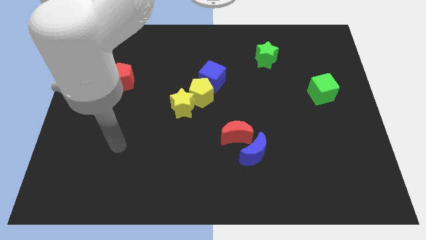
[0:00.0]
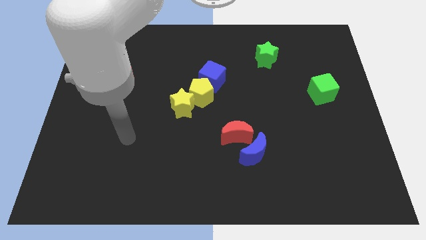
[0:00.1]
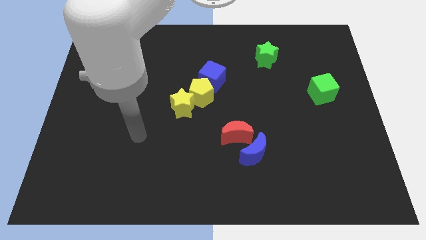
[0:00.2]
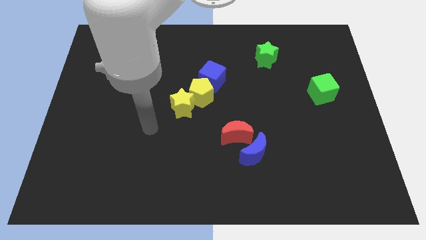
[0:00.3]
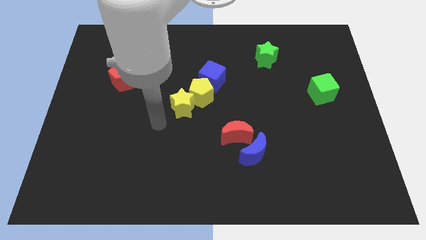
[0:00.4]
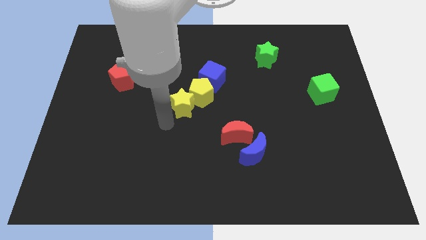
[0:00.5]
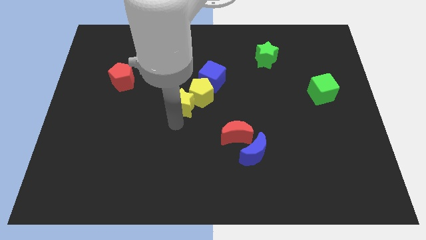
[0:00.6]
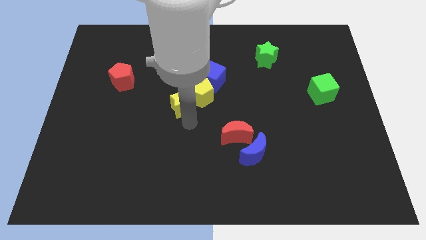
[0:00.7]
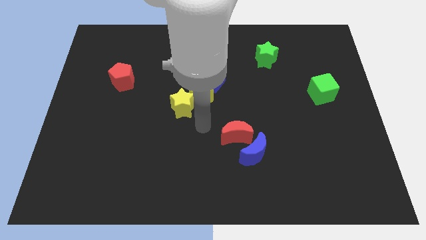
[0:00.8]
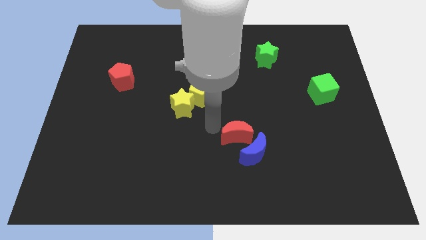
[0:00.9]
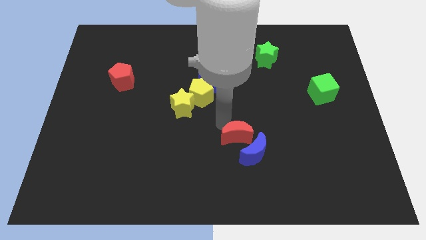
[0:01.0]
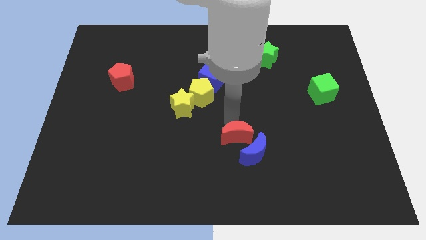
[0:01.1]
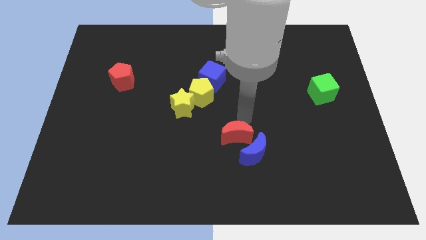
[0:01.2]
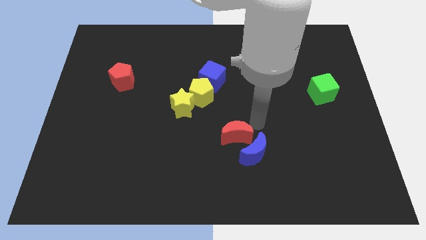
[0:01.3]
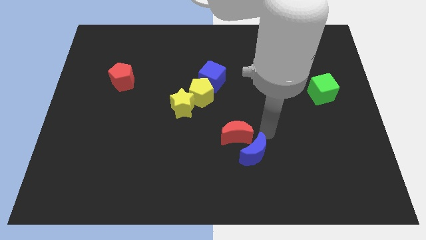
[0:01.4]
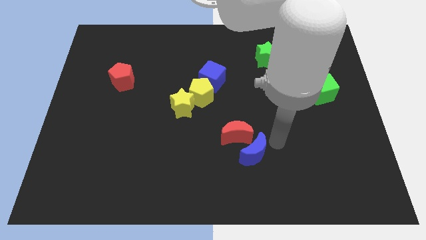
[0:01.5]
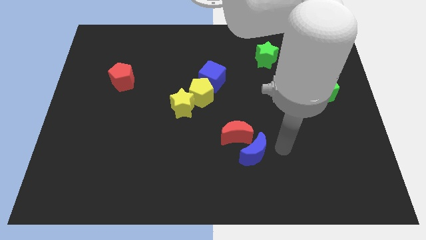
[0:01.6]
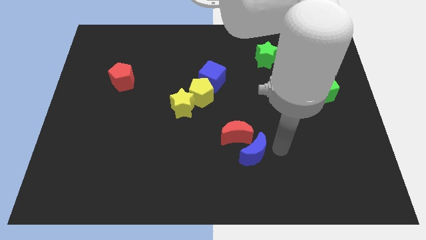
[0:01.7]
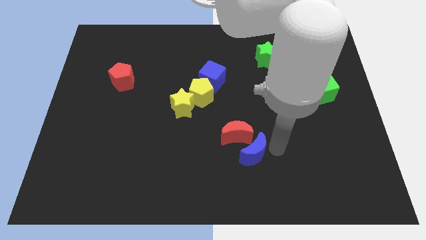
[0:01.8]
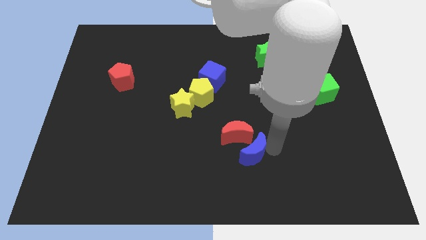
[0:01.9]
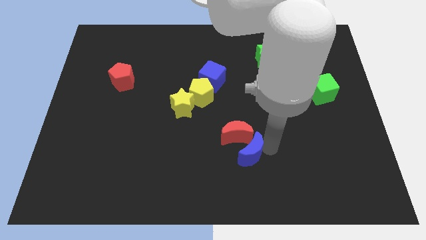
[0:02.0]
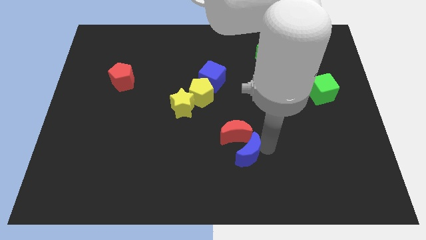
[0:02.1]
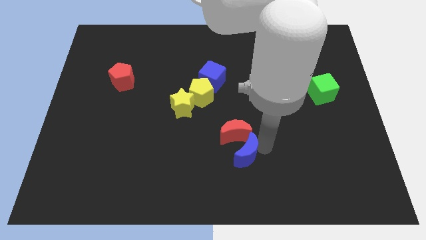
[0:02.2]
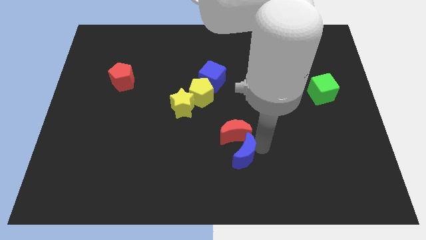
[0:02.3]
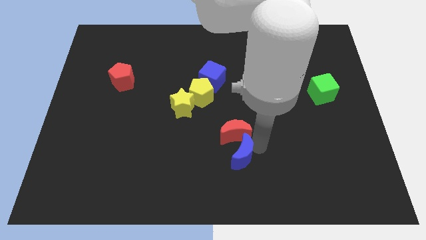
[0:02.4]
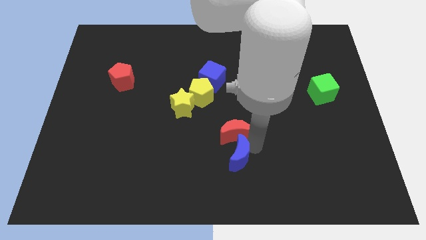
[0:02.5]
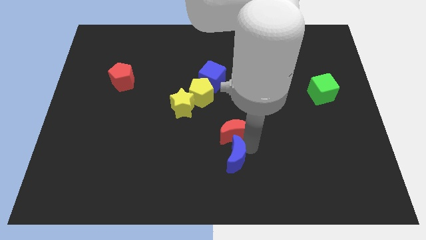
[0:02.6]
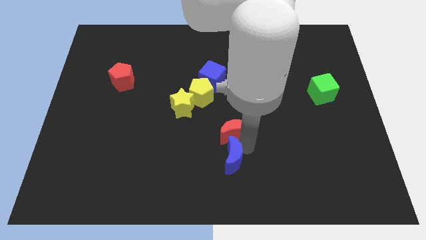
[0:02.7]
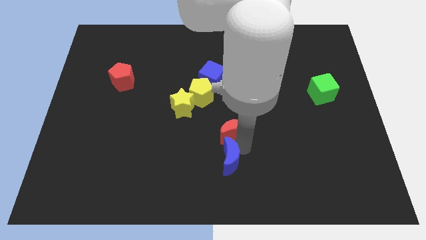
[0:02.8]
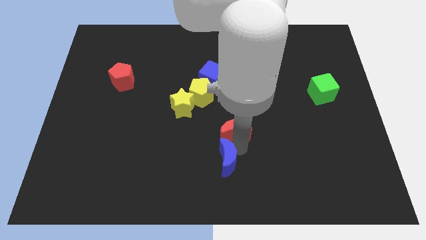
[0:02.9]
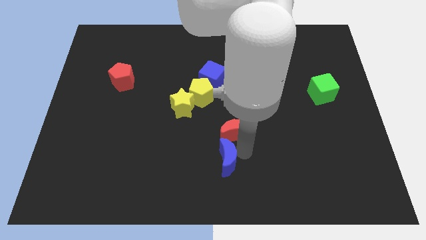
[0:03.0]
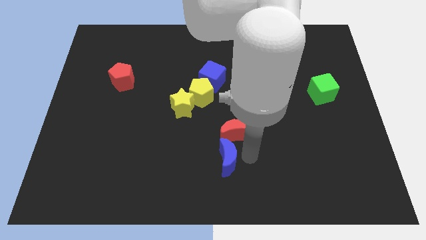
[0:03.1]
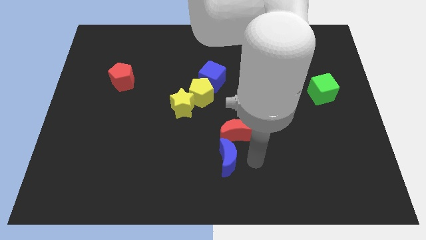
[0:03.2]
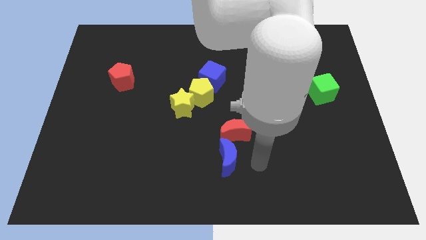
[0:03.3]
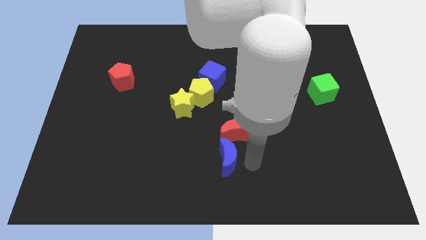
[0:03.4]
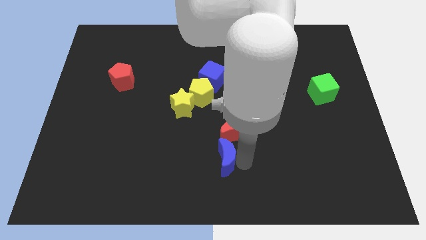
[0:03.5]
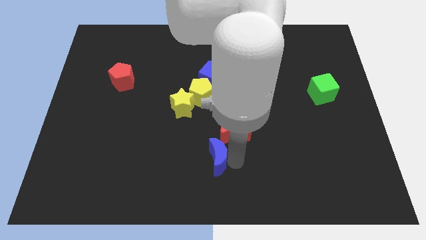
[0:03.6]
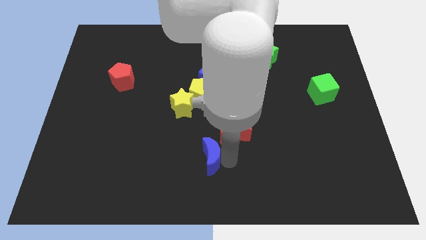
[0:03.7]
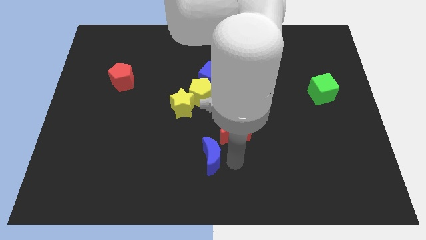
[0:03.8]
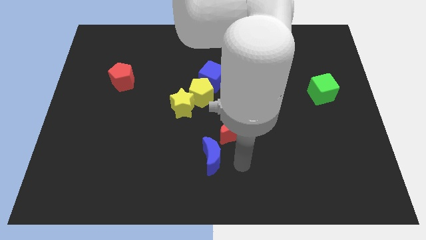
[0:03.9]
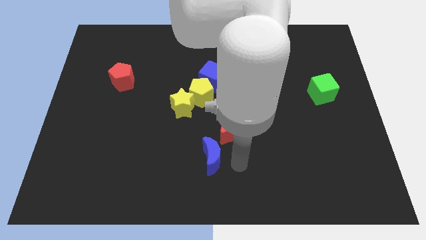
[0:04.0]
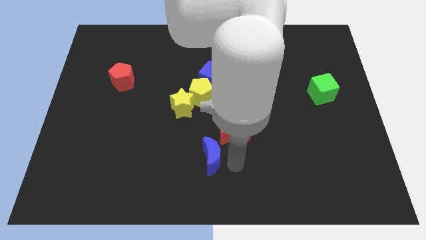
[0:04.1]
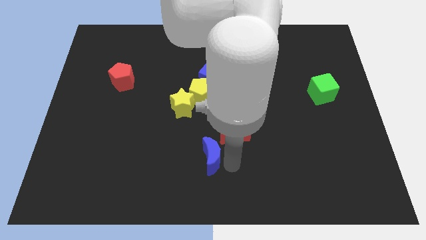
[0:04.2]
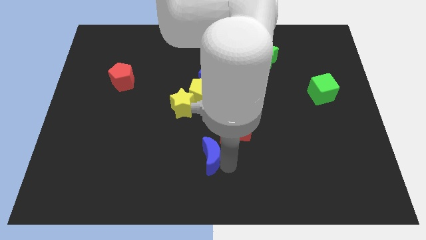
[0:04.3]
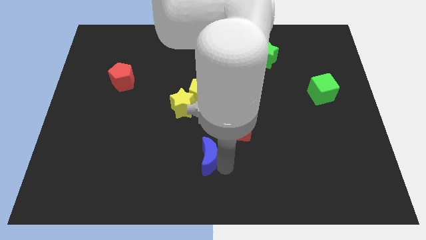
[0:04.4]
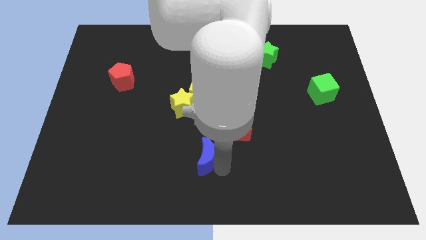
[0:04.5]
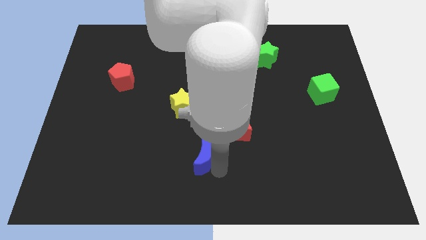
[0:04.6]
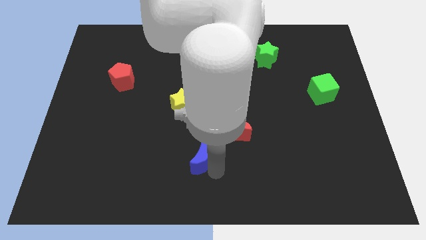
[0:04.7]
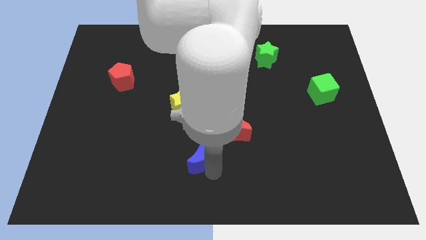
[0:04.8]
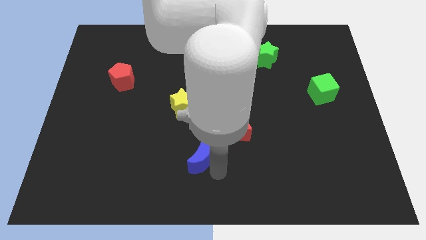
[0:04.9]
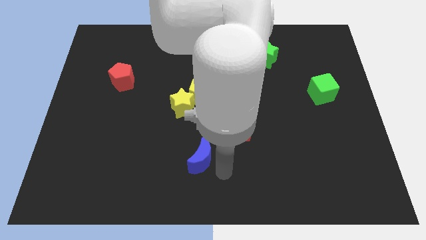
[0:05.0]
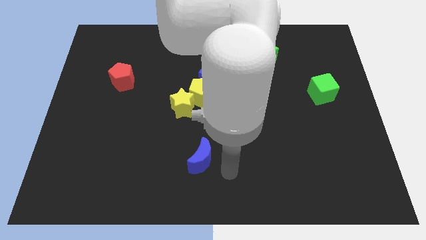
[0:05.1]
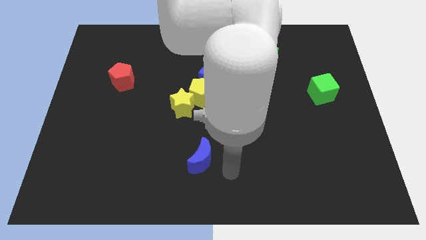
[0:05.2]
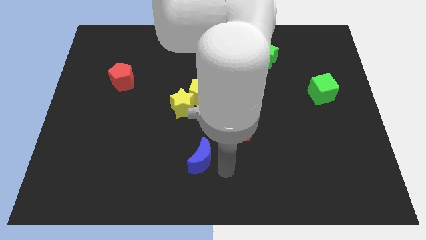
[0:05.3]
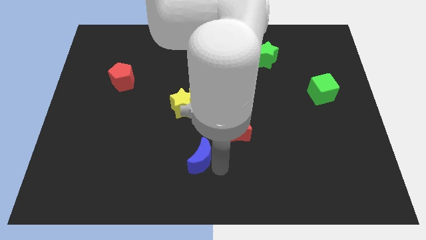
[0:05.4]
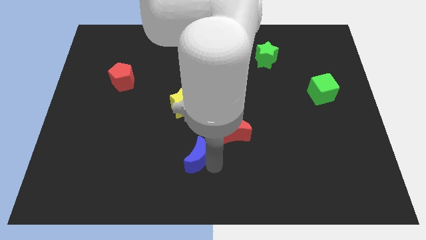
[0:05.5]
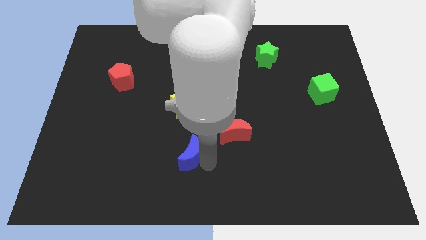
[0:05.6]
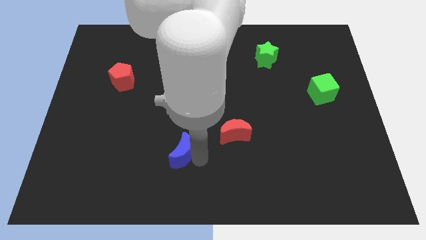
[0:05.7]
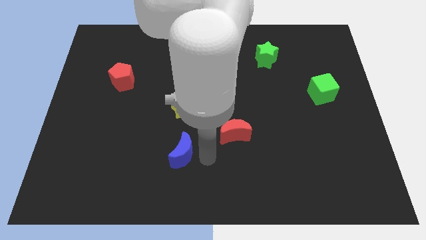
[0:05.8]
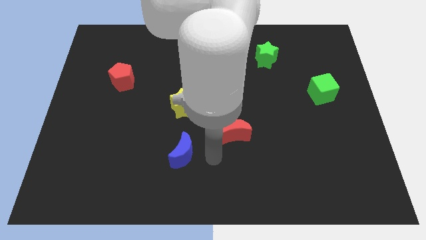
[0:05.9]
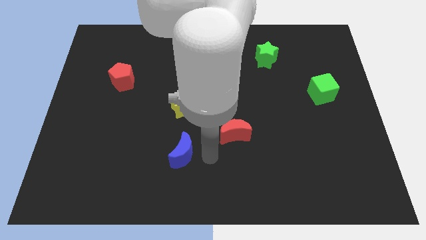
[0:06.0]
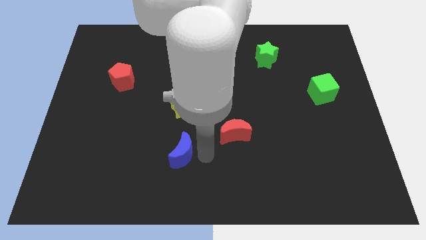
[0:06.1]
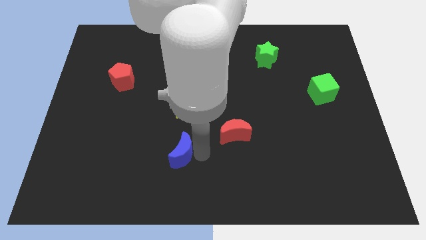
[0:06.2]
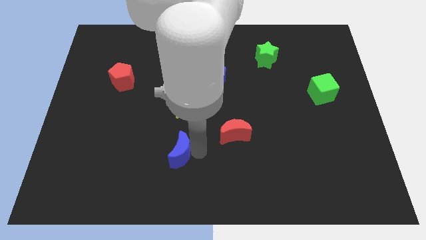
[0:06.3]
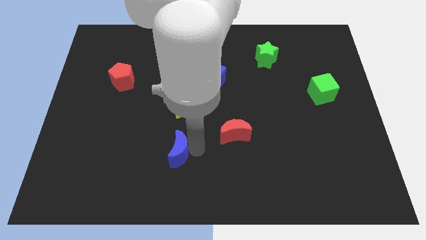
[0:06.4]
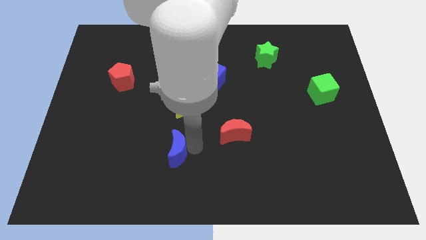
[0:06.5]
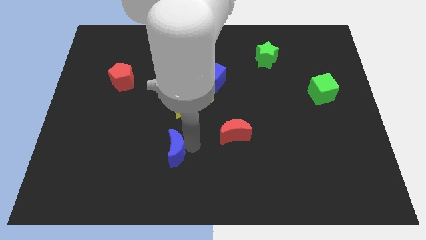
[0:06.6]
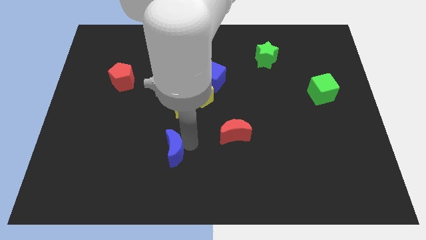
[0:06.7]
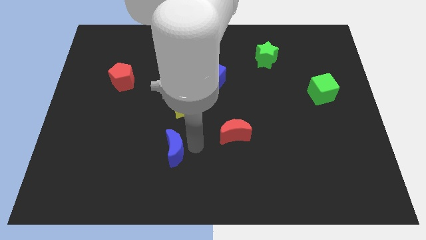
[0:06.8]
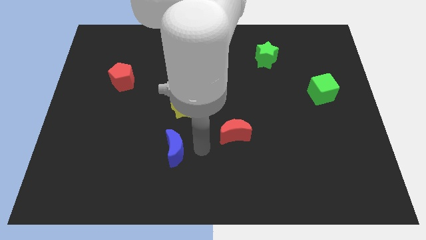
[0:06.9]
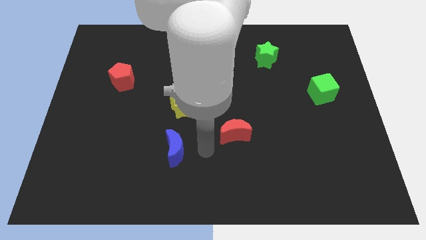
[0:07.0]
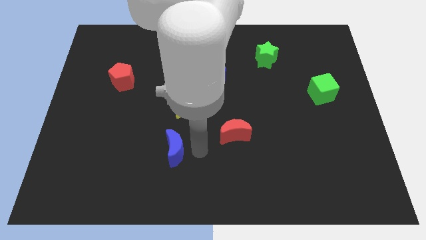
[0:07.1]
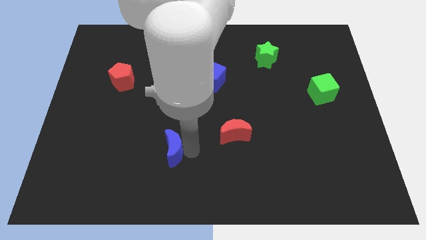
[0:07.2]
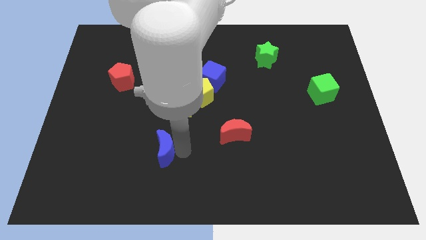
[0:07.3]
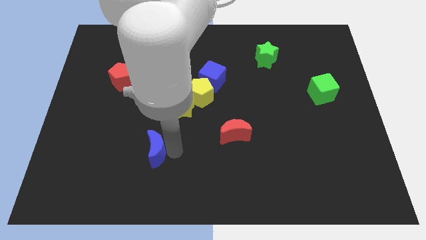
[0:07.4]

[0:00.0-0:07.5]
slide the blue moon to the left

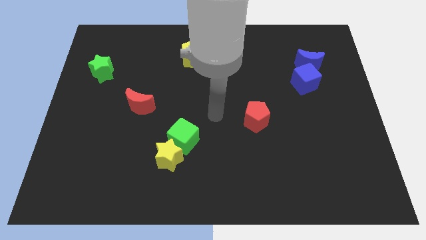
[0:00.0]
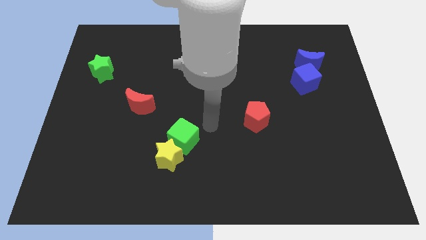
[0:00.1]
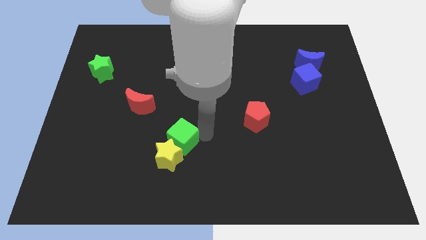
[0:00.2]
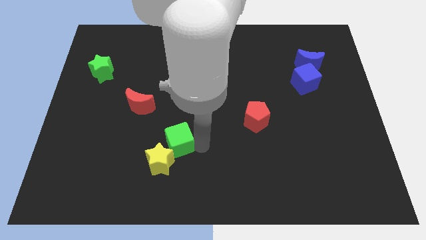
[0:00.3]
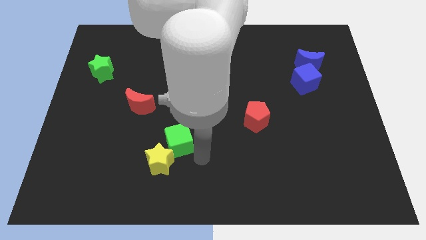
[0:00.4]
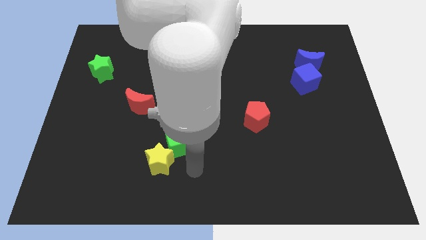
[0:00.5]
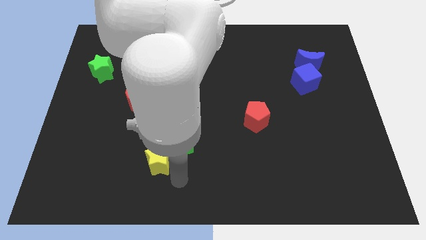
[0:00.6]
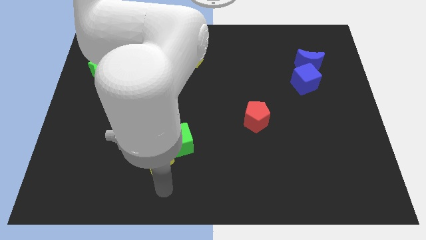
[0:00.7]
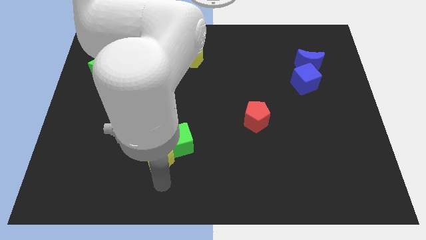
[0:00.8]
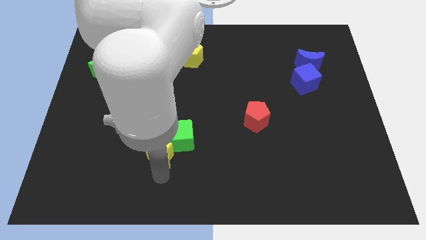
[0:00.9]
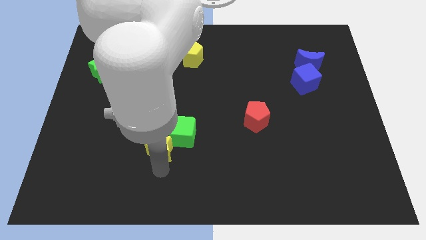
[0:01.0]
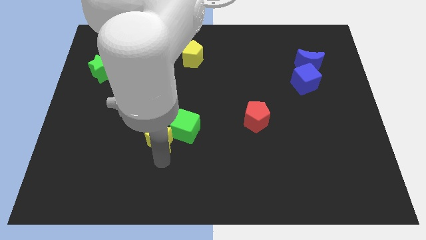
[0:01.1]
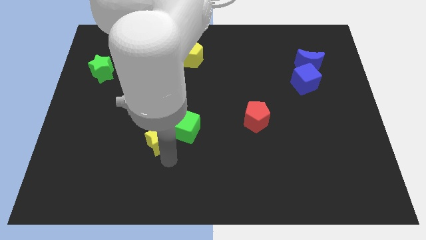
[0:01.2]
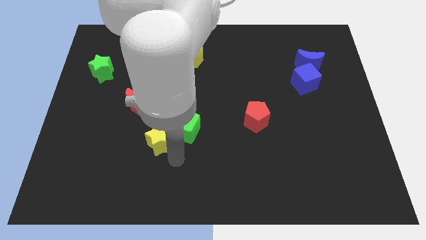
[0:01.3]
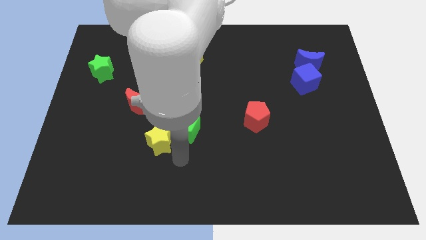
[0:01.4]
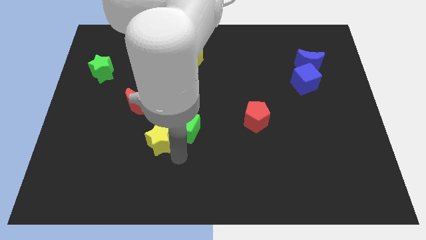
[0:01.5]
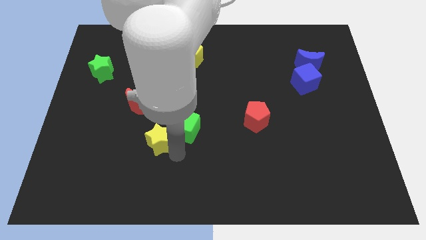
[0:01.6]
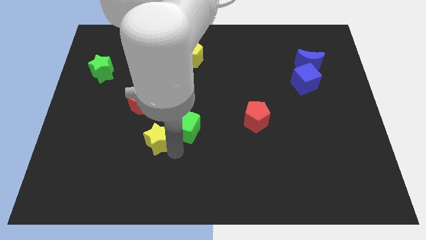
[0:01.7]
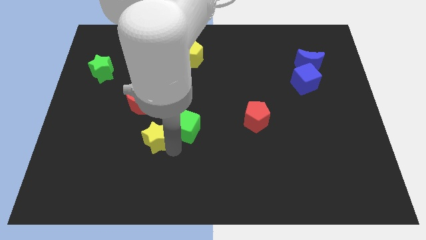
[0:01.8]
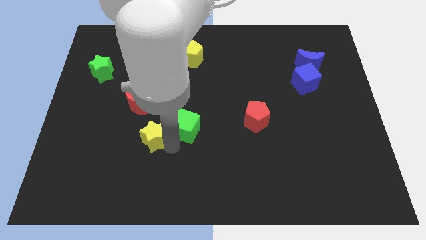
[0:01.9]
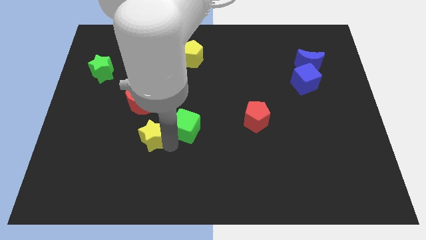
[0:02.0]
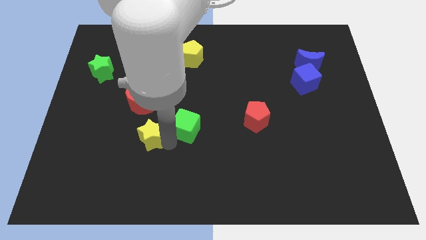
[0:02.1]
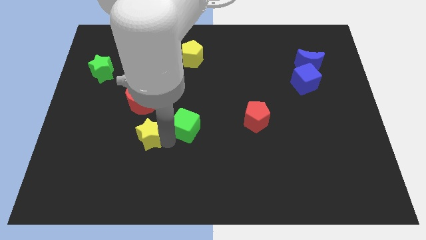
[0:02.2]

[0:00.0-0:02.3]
slide the yellow star up and left diagonally somewhat
